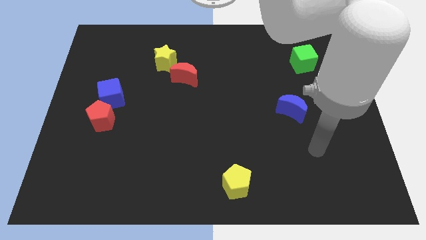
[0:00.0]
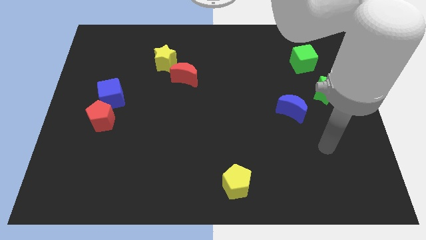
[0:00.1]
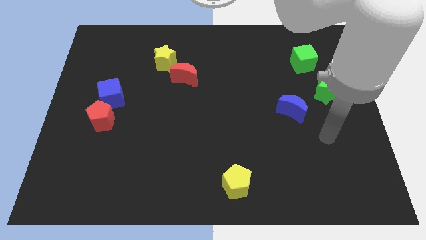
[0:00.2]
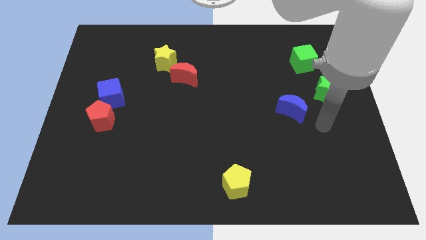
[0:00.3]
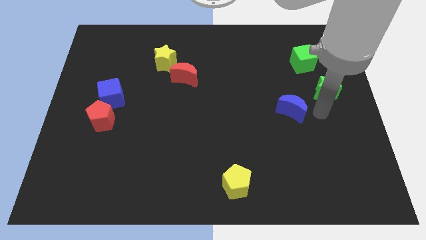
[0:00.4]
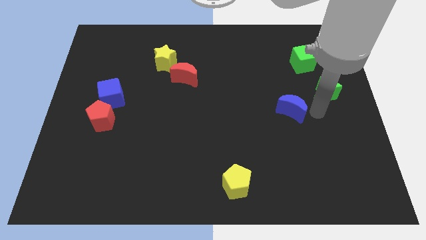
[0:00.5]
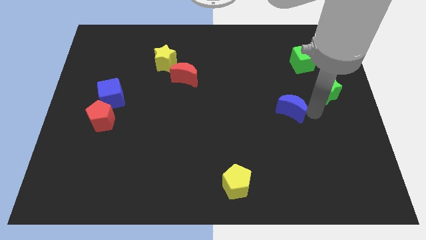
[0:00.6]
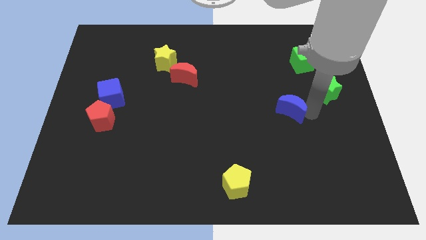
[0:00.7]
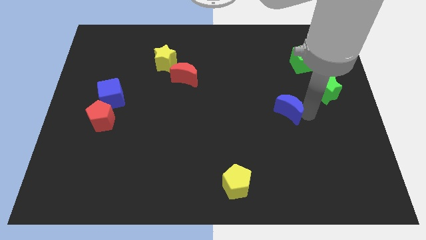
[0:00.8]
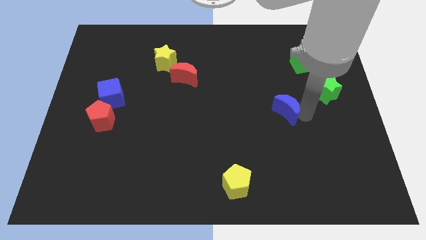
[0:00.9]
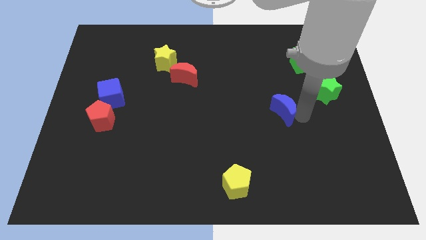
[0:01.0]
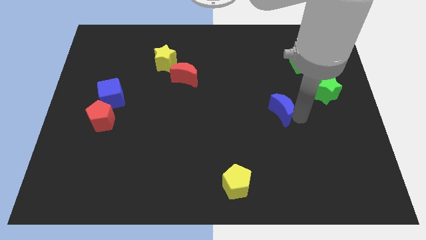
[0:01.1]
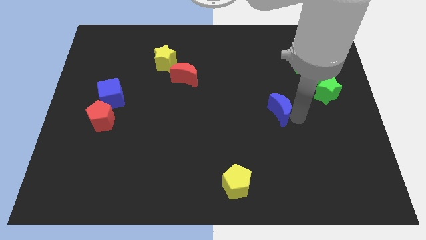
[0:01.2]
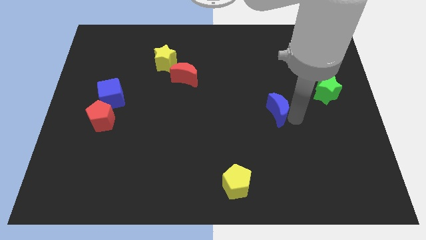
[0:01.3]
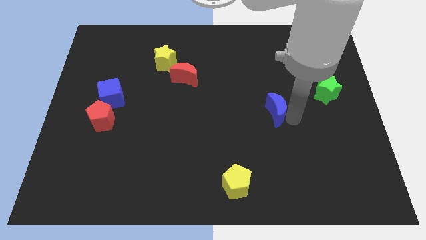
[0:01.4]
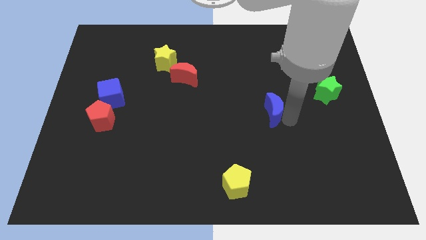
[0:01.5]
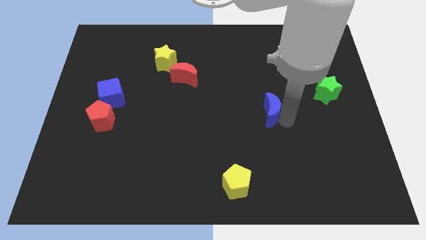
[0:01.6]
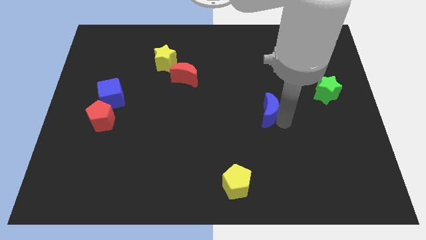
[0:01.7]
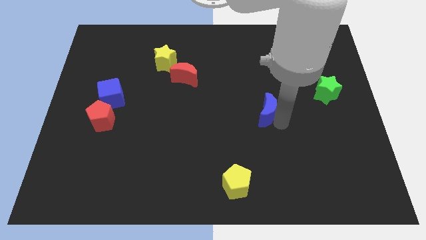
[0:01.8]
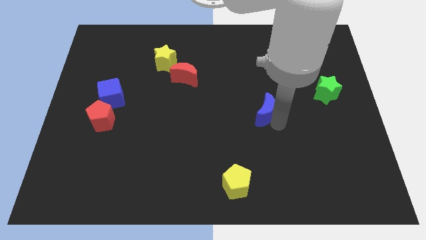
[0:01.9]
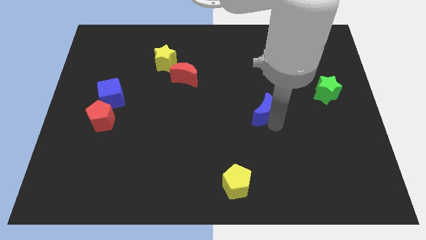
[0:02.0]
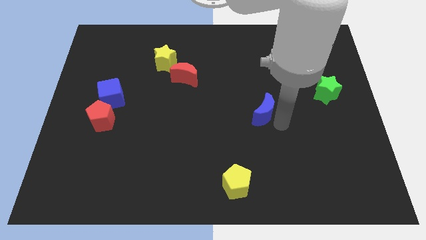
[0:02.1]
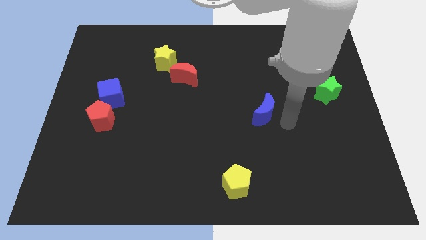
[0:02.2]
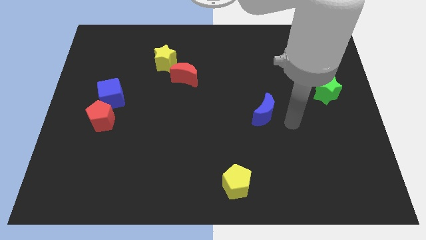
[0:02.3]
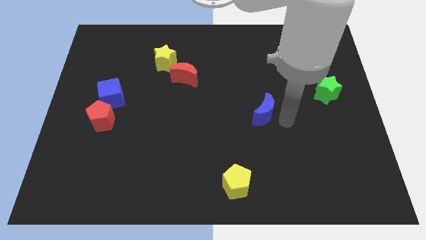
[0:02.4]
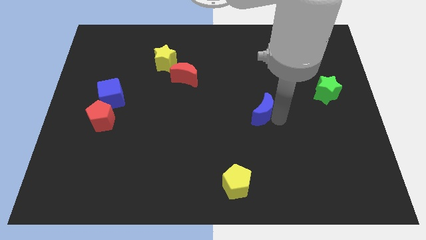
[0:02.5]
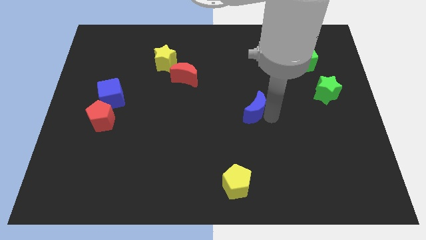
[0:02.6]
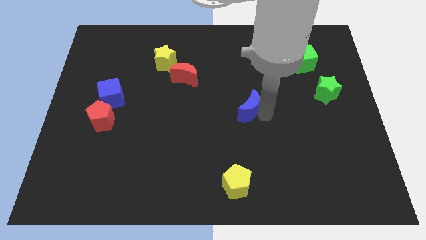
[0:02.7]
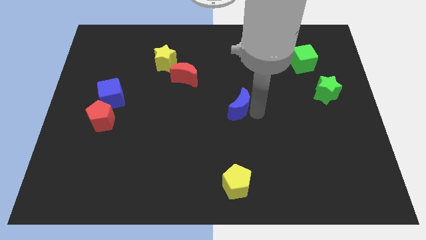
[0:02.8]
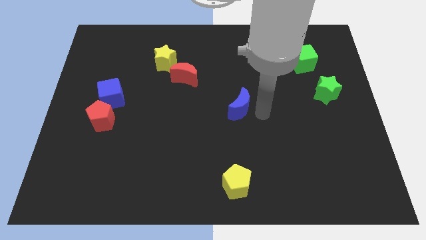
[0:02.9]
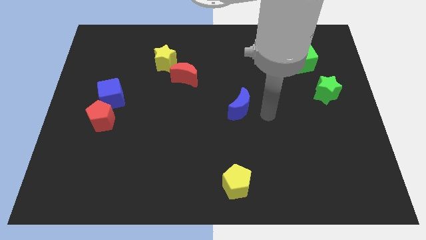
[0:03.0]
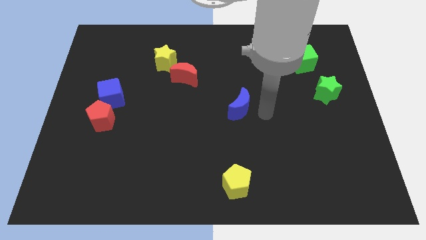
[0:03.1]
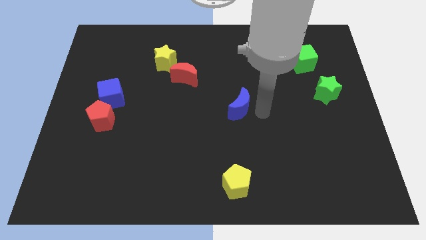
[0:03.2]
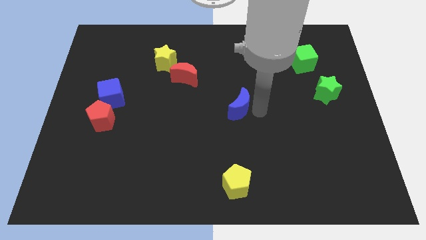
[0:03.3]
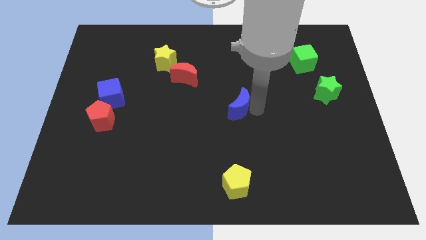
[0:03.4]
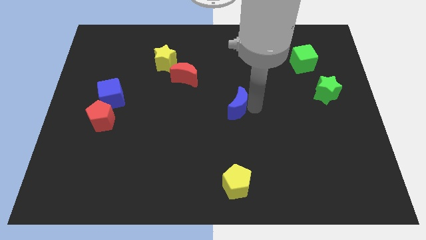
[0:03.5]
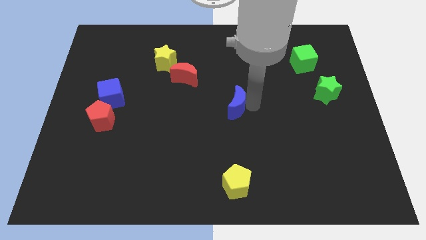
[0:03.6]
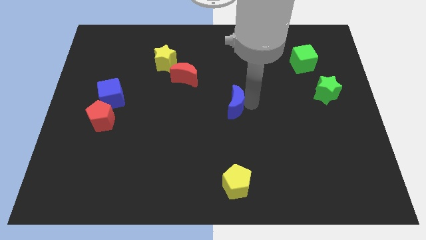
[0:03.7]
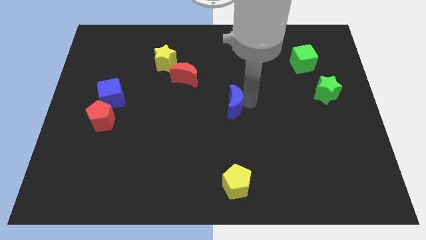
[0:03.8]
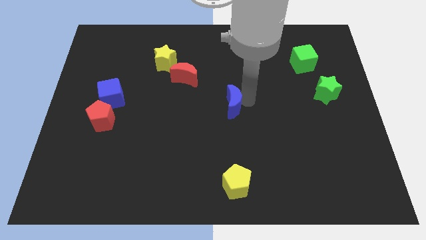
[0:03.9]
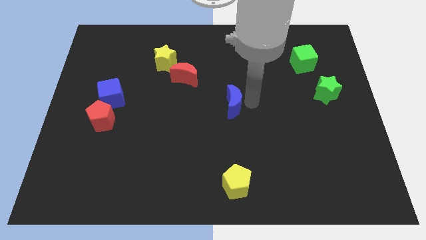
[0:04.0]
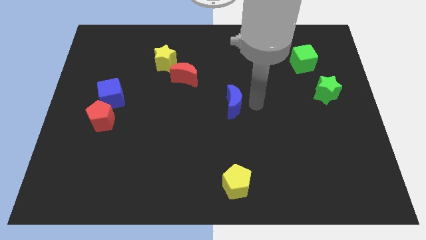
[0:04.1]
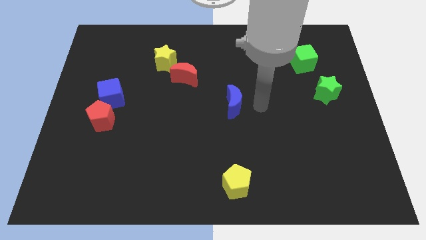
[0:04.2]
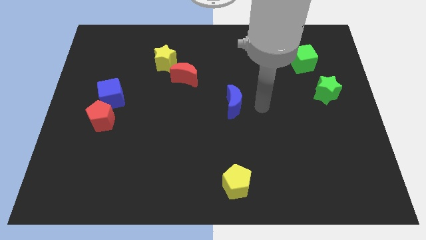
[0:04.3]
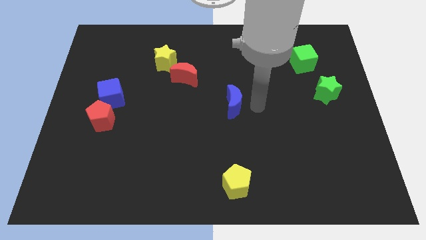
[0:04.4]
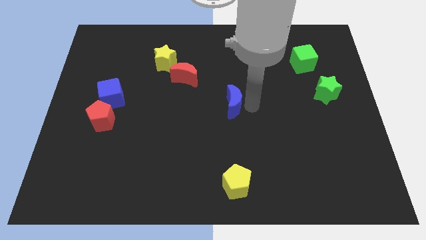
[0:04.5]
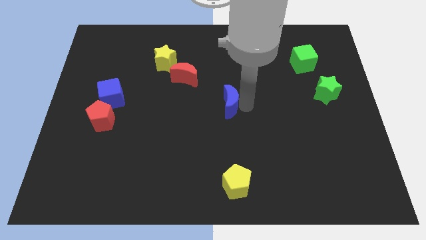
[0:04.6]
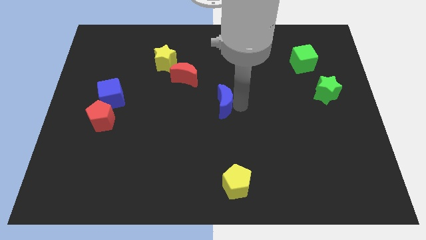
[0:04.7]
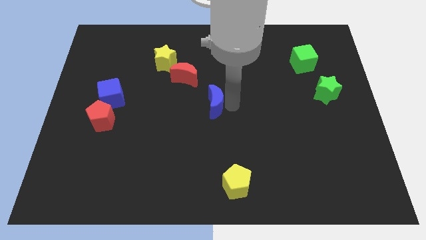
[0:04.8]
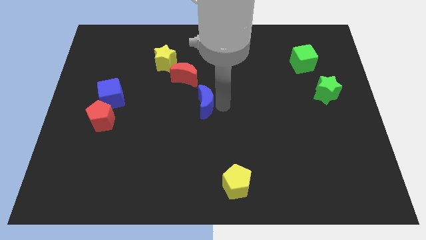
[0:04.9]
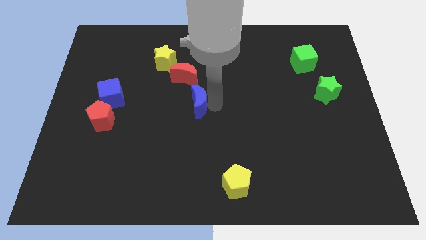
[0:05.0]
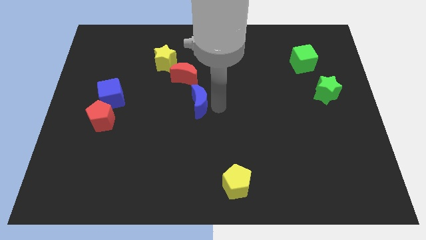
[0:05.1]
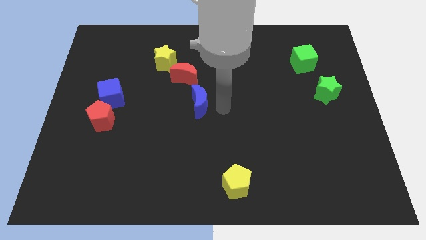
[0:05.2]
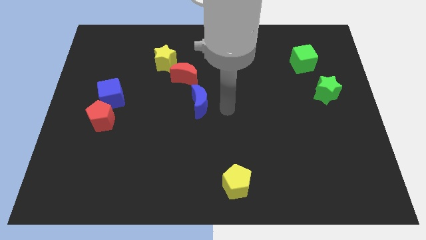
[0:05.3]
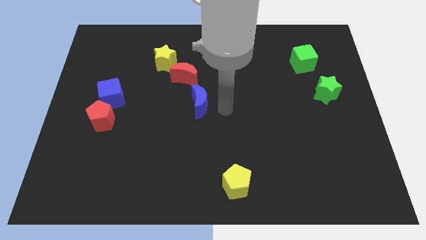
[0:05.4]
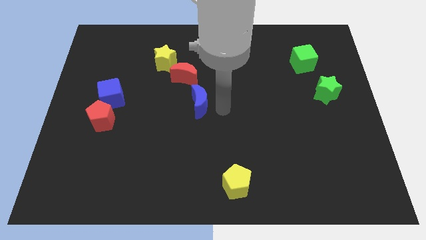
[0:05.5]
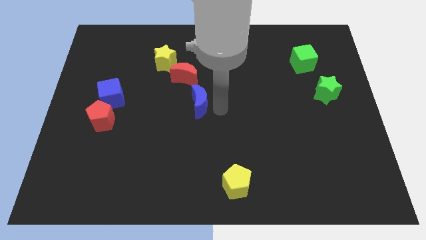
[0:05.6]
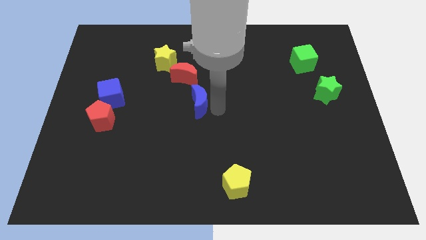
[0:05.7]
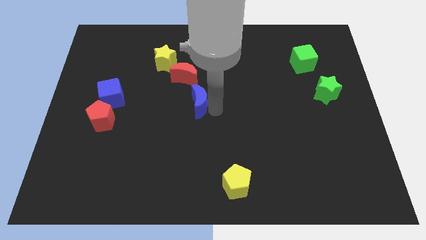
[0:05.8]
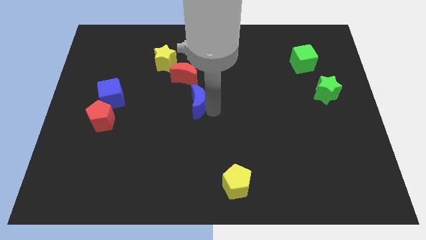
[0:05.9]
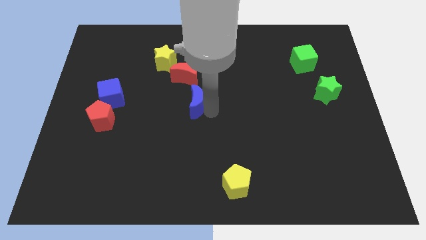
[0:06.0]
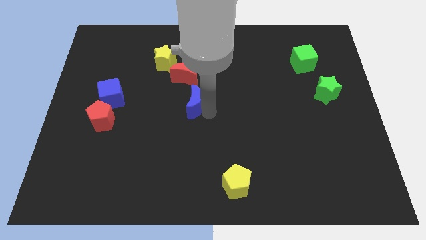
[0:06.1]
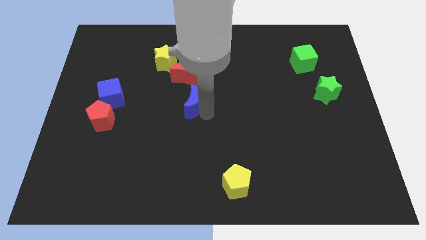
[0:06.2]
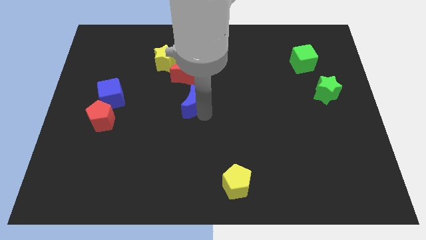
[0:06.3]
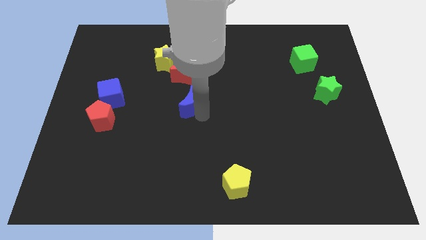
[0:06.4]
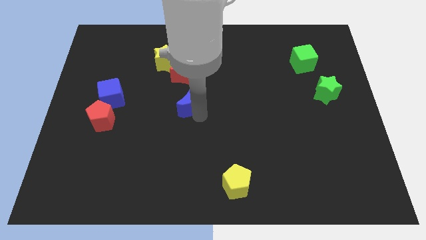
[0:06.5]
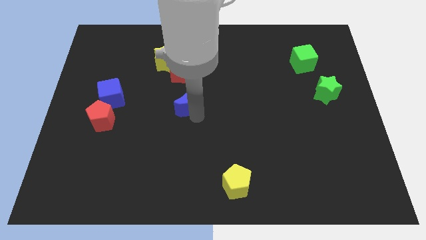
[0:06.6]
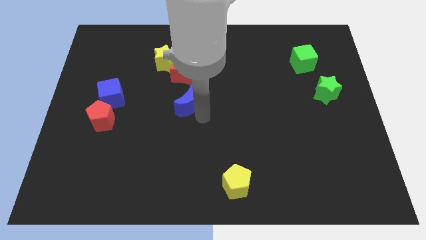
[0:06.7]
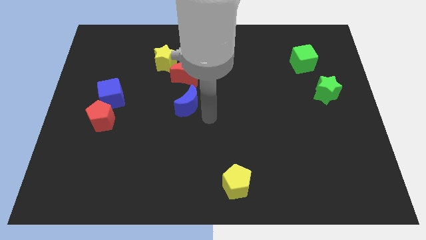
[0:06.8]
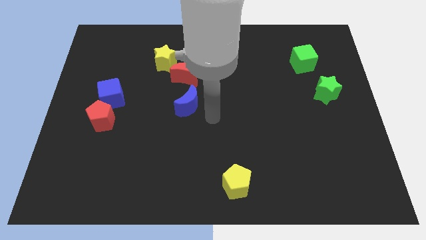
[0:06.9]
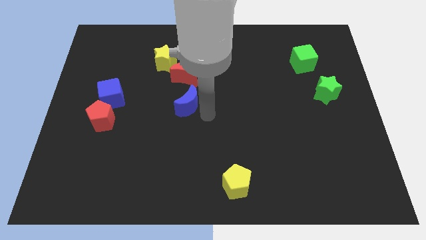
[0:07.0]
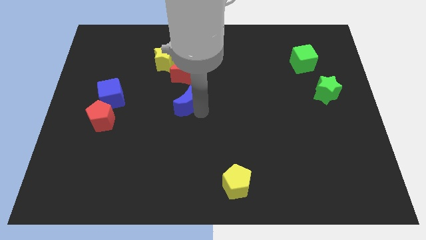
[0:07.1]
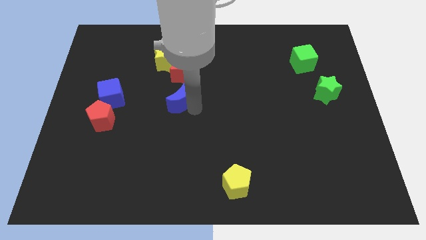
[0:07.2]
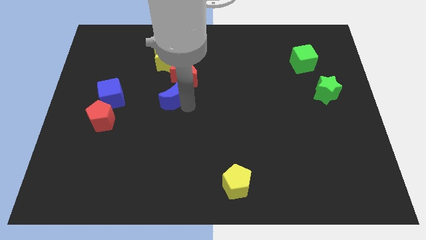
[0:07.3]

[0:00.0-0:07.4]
push the blue moon to the bottom left of the red moon
